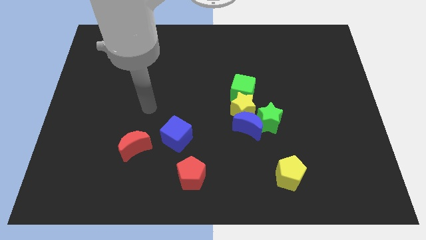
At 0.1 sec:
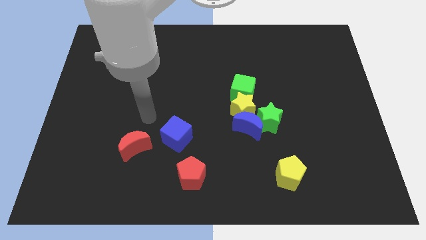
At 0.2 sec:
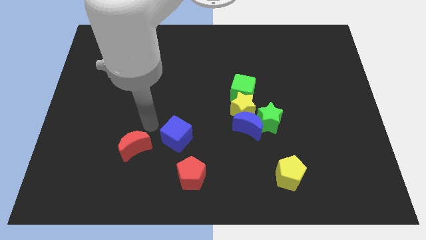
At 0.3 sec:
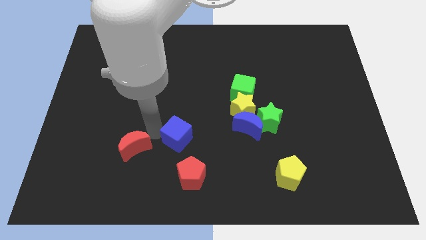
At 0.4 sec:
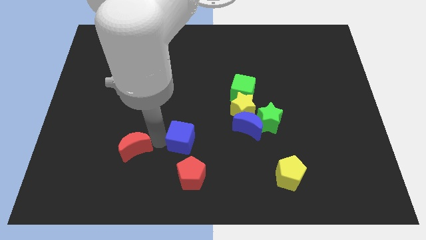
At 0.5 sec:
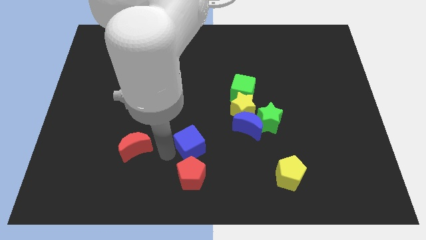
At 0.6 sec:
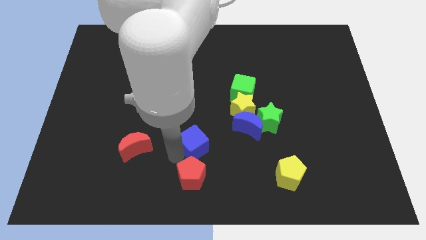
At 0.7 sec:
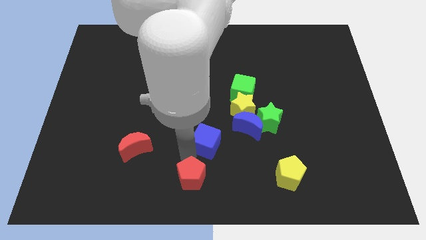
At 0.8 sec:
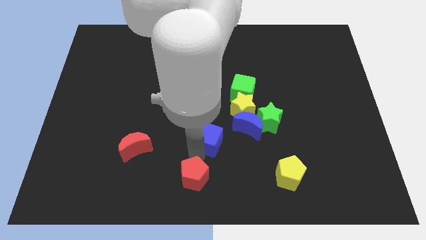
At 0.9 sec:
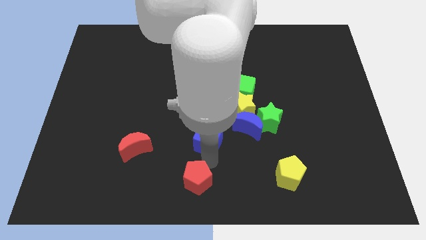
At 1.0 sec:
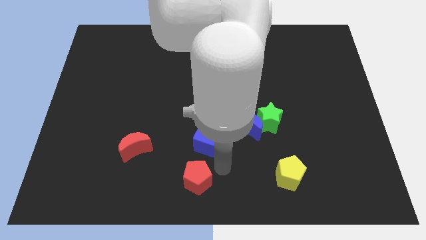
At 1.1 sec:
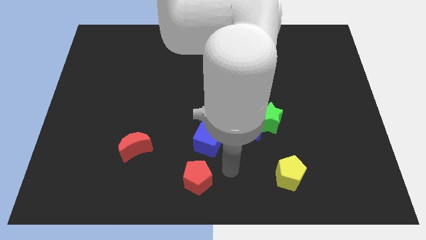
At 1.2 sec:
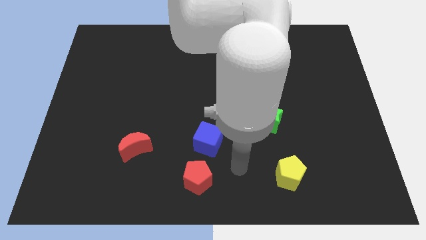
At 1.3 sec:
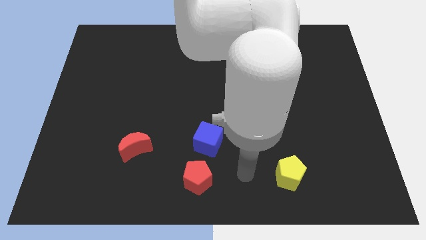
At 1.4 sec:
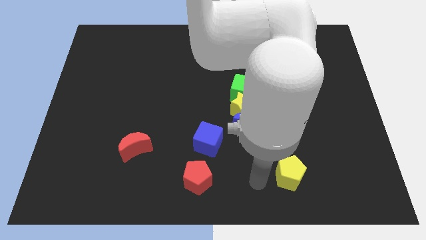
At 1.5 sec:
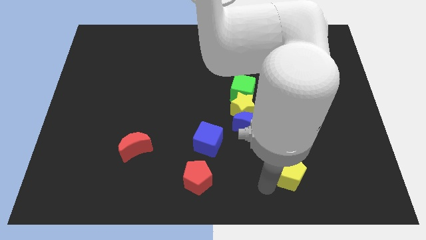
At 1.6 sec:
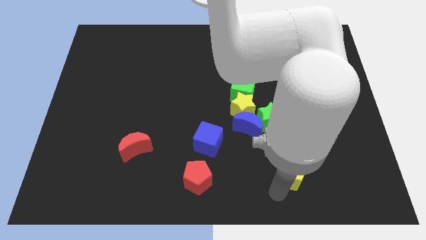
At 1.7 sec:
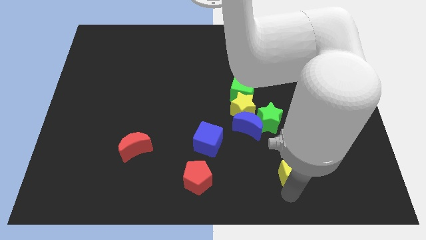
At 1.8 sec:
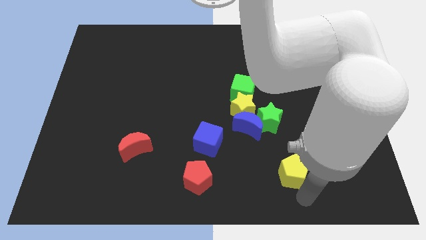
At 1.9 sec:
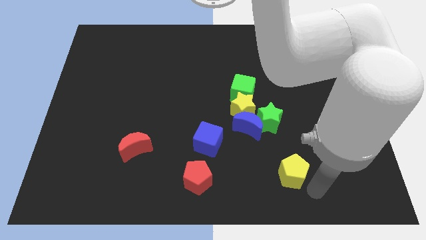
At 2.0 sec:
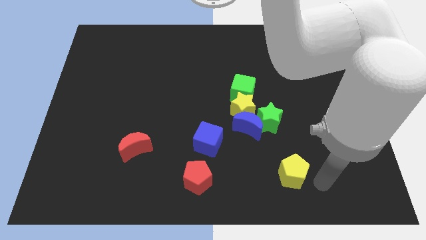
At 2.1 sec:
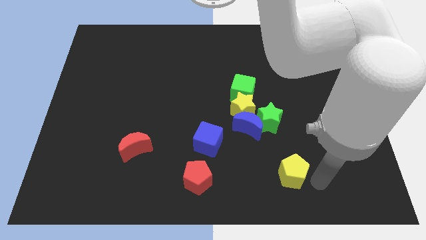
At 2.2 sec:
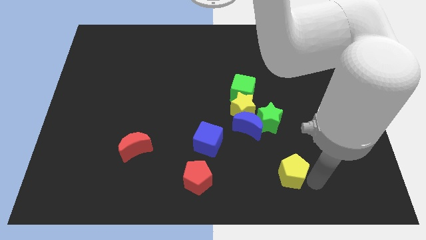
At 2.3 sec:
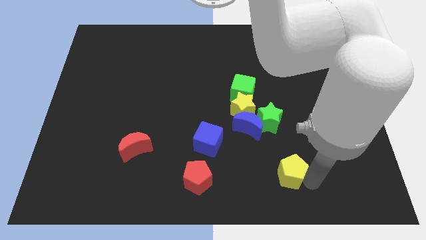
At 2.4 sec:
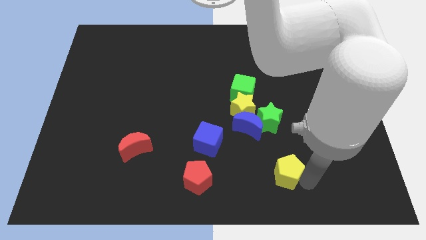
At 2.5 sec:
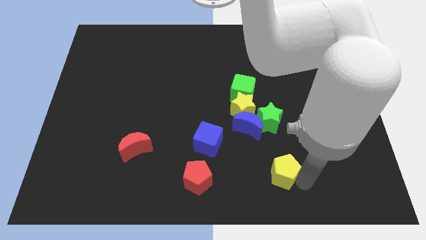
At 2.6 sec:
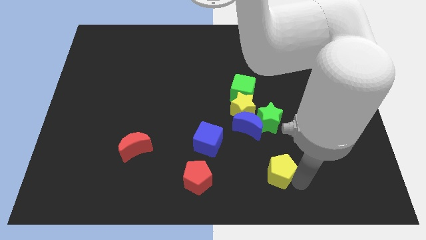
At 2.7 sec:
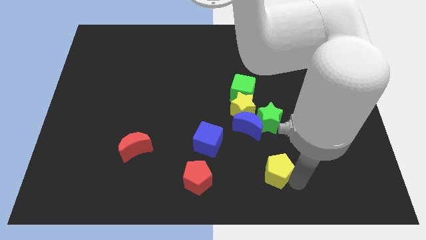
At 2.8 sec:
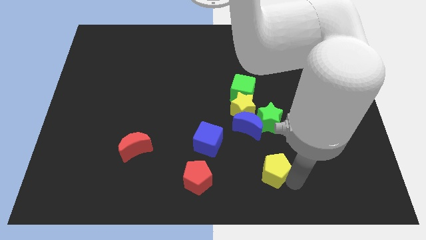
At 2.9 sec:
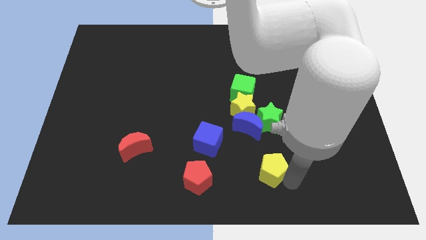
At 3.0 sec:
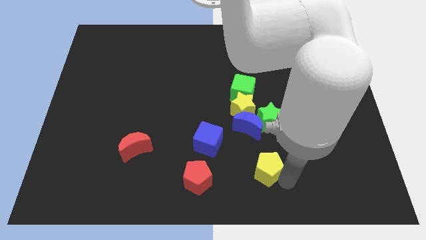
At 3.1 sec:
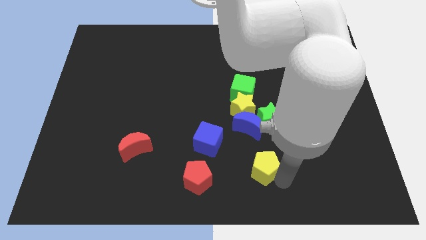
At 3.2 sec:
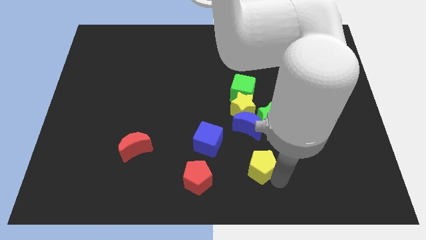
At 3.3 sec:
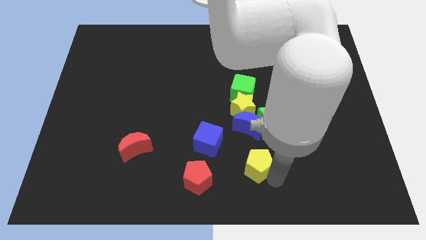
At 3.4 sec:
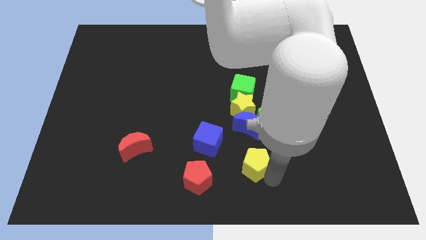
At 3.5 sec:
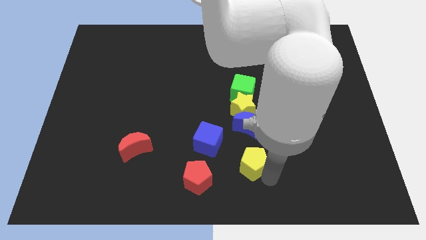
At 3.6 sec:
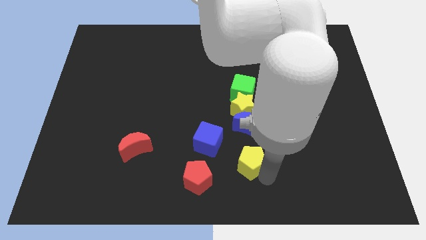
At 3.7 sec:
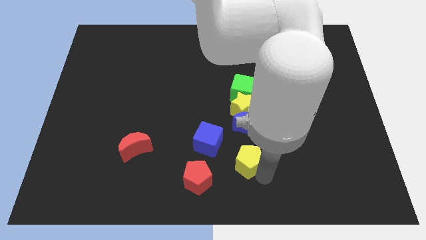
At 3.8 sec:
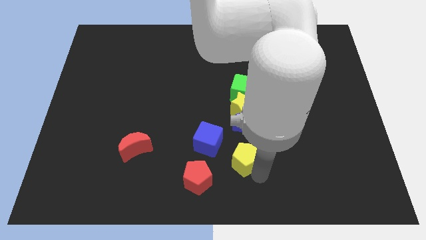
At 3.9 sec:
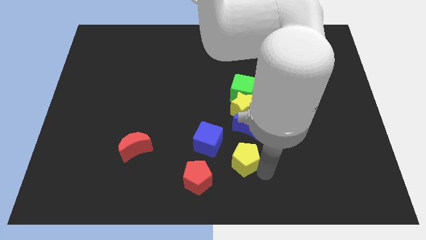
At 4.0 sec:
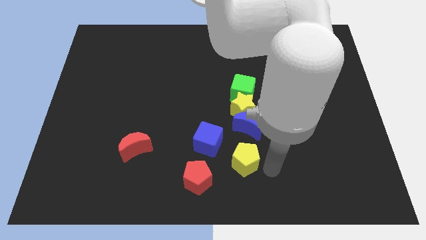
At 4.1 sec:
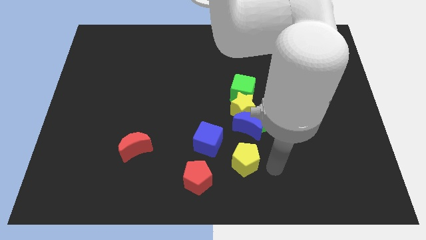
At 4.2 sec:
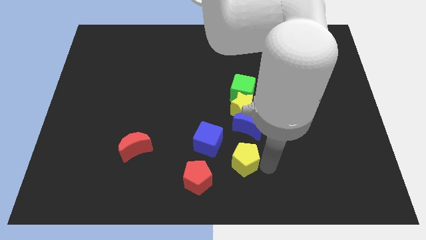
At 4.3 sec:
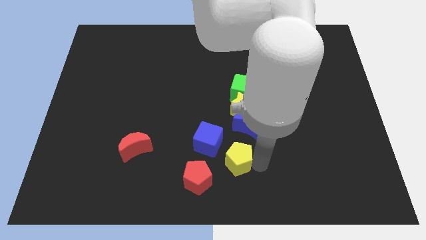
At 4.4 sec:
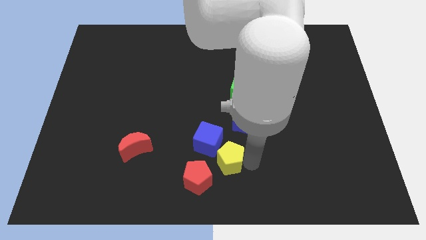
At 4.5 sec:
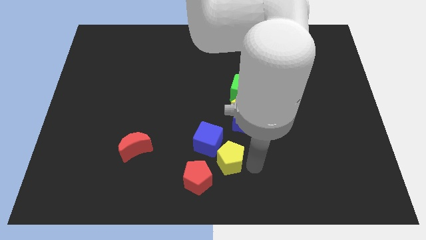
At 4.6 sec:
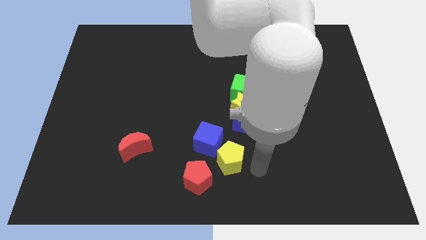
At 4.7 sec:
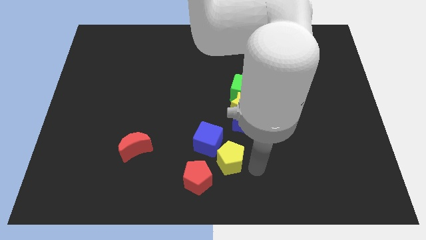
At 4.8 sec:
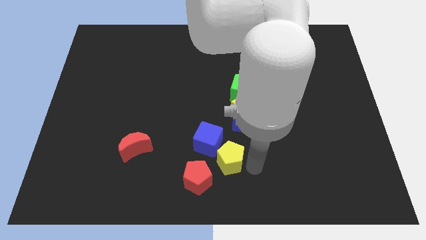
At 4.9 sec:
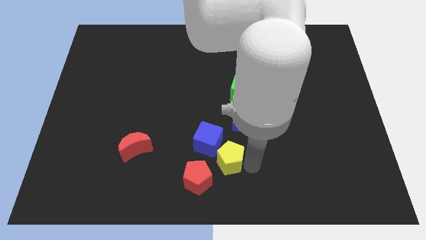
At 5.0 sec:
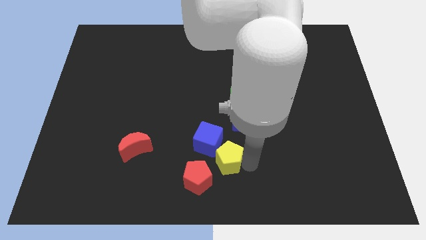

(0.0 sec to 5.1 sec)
move the yellow pentagon close to the blue cube

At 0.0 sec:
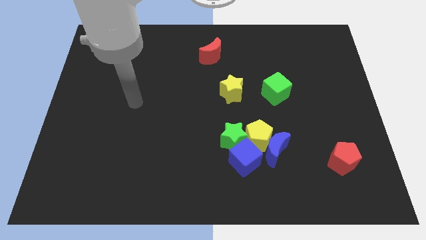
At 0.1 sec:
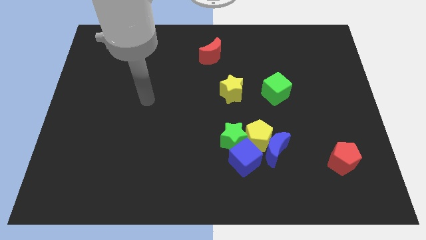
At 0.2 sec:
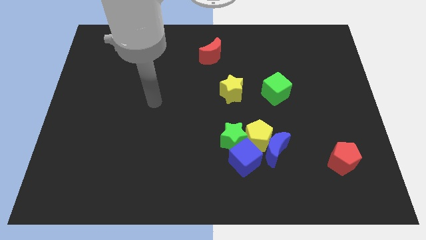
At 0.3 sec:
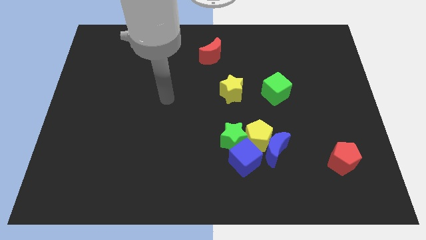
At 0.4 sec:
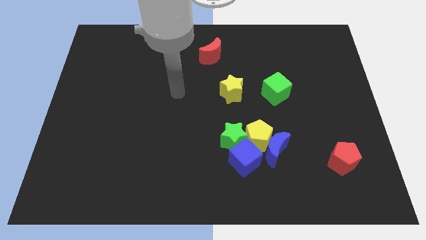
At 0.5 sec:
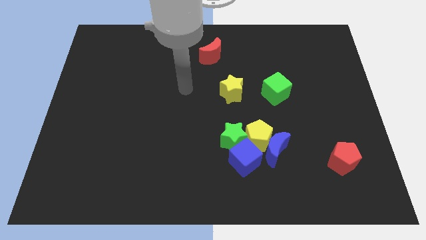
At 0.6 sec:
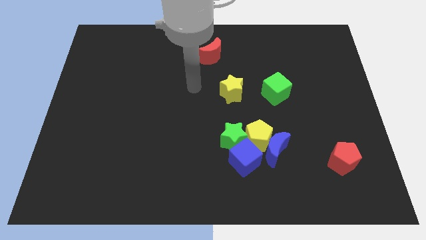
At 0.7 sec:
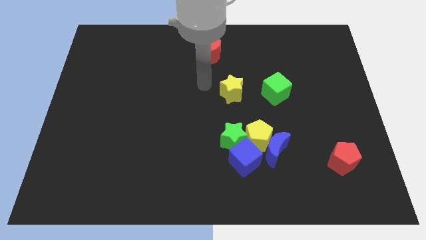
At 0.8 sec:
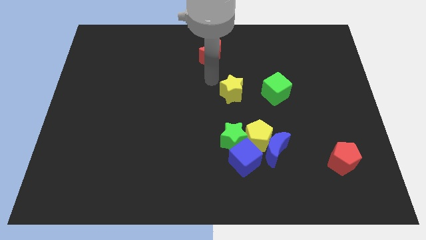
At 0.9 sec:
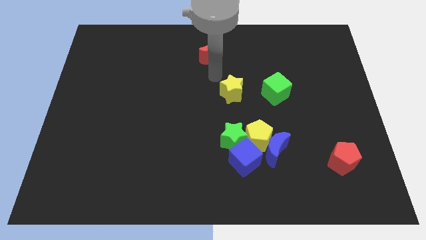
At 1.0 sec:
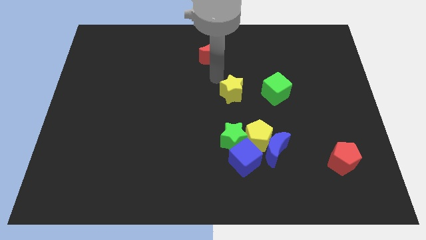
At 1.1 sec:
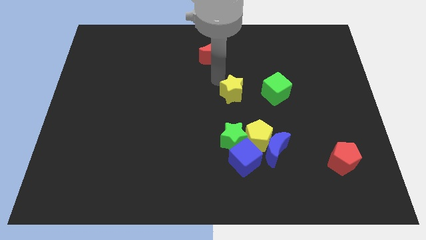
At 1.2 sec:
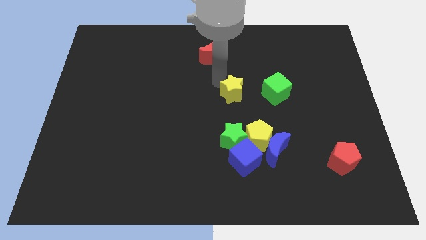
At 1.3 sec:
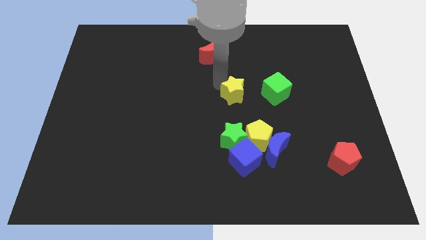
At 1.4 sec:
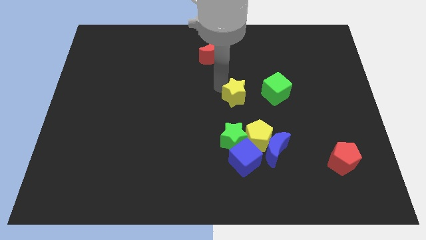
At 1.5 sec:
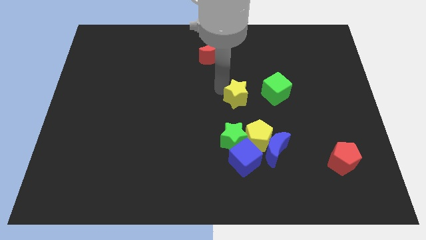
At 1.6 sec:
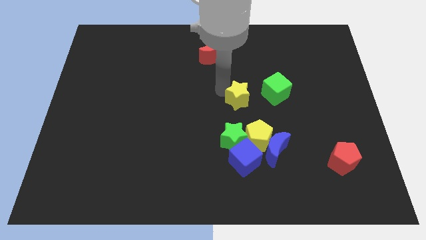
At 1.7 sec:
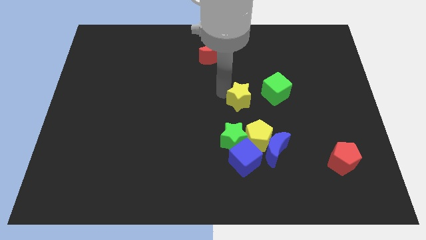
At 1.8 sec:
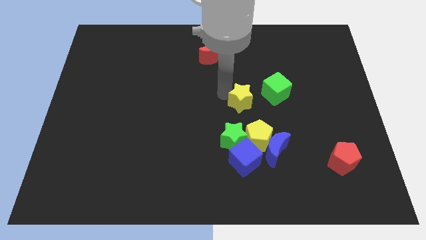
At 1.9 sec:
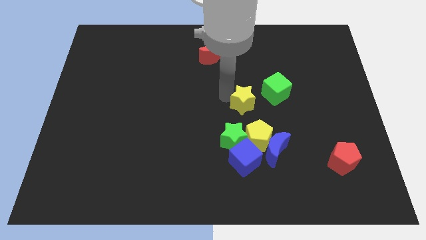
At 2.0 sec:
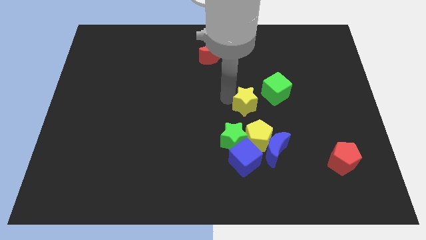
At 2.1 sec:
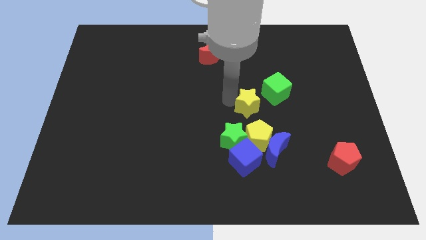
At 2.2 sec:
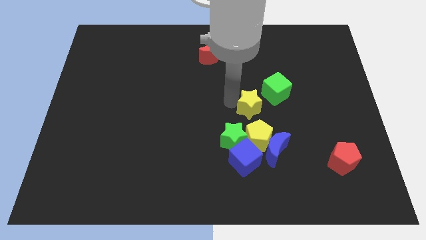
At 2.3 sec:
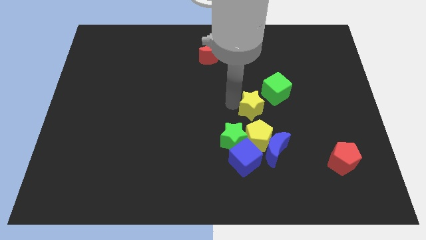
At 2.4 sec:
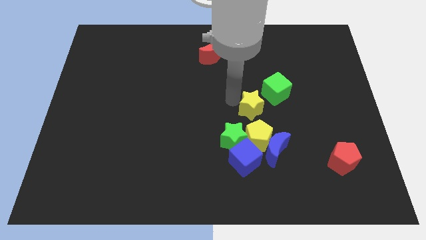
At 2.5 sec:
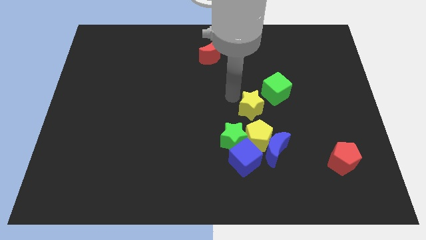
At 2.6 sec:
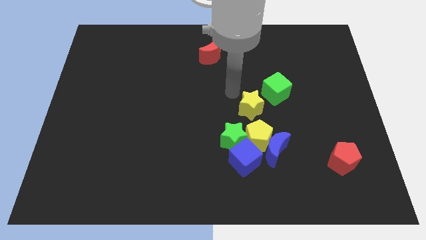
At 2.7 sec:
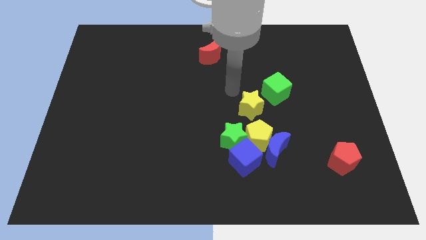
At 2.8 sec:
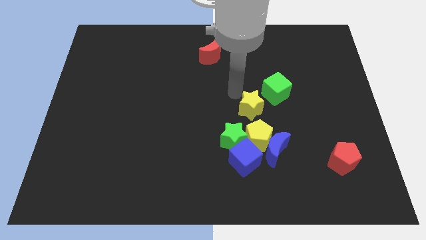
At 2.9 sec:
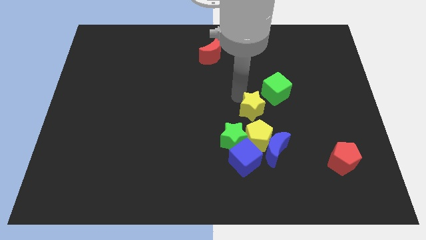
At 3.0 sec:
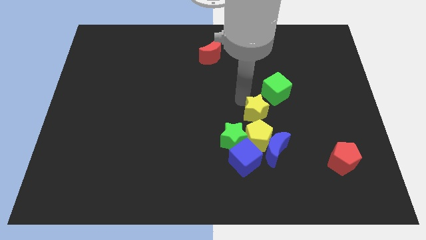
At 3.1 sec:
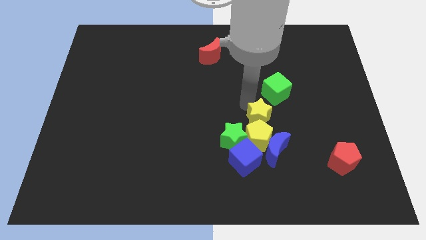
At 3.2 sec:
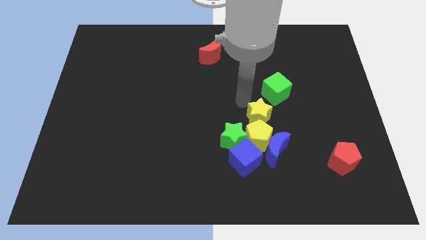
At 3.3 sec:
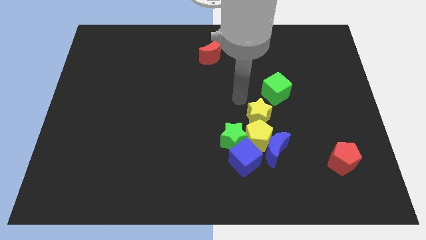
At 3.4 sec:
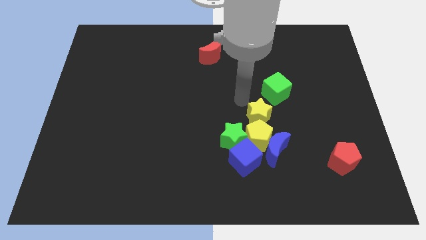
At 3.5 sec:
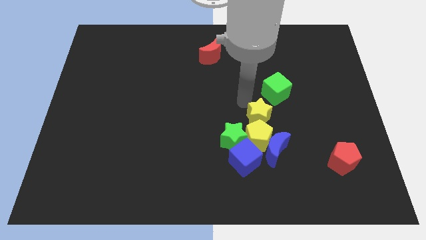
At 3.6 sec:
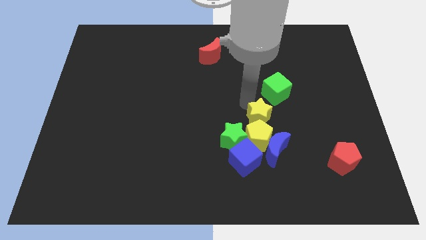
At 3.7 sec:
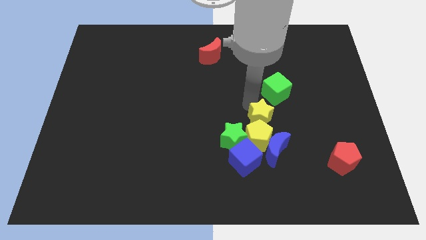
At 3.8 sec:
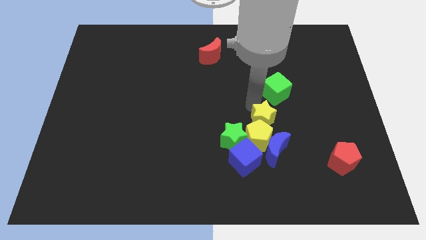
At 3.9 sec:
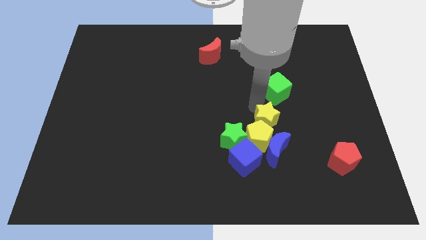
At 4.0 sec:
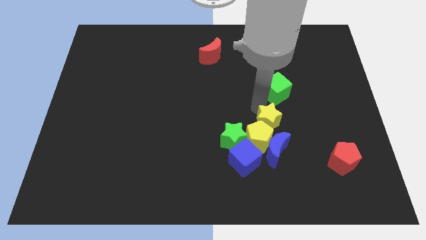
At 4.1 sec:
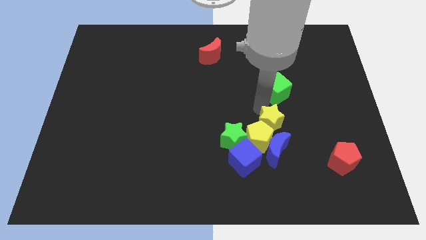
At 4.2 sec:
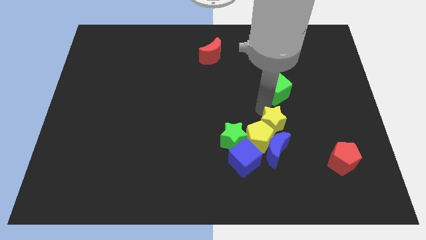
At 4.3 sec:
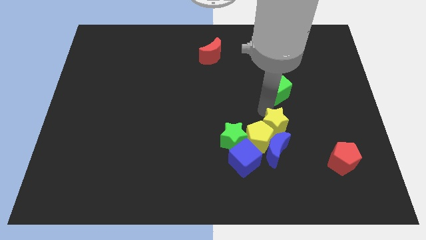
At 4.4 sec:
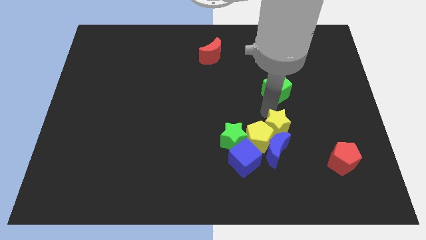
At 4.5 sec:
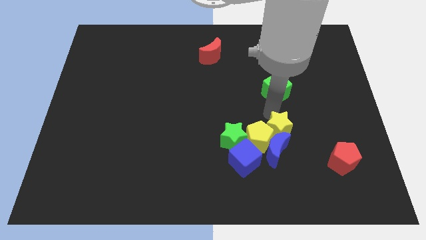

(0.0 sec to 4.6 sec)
put the yellow star towards the blue moon
